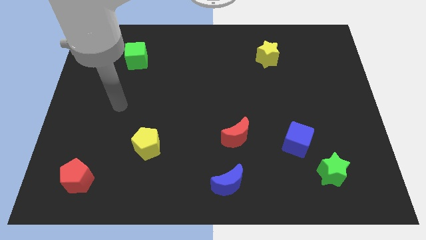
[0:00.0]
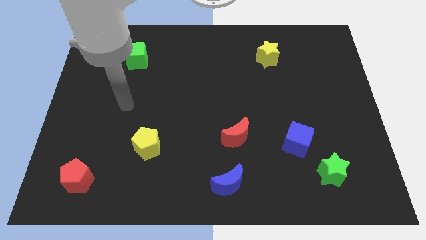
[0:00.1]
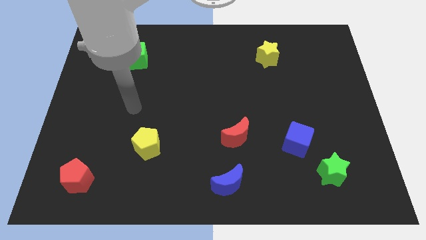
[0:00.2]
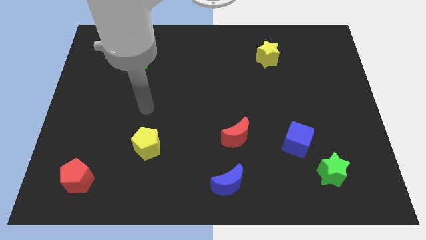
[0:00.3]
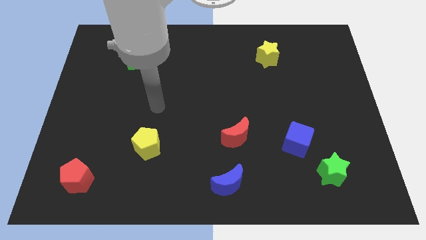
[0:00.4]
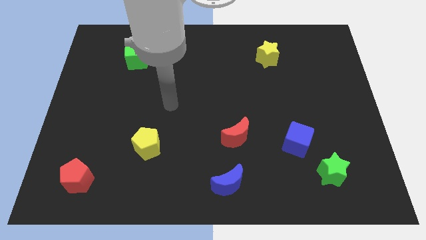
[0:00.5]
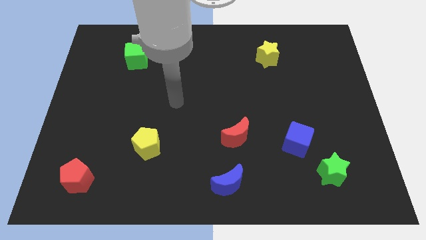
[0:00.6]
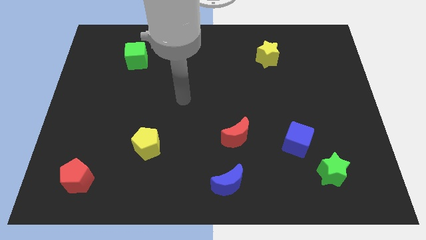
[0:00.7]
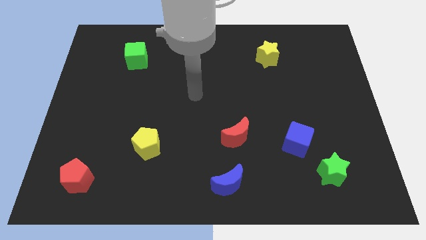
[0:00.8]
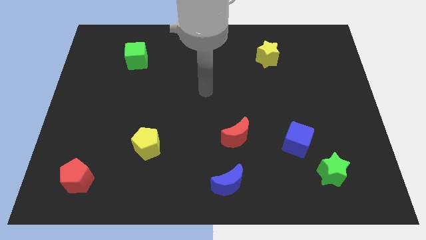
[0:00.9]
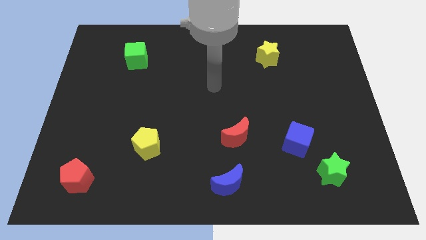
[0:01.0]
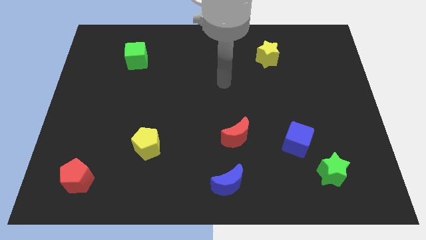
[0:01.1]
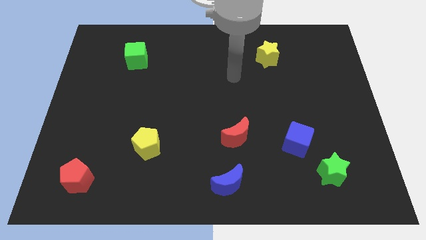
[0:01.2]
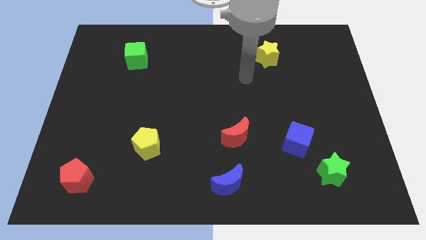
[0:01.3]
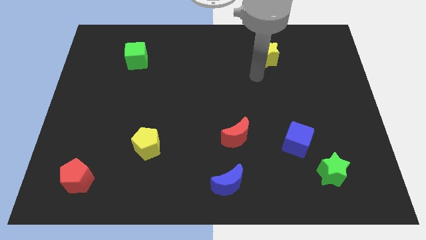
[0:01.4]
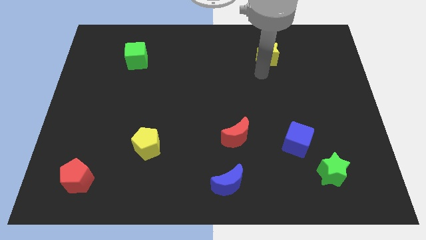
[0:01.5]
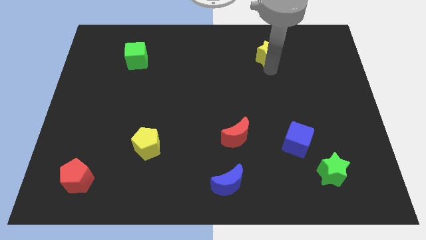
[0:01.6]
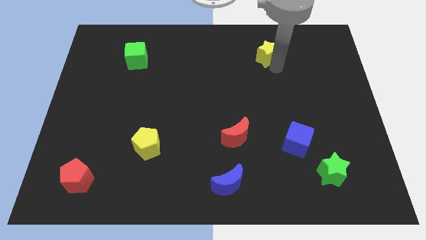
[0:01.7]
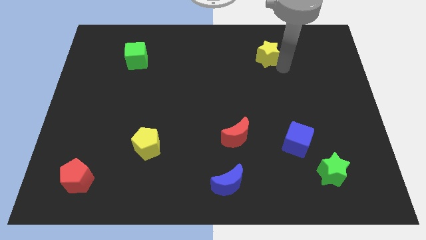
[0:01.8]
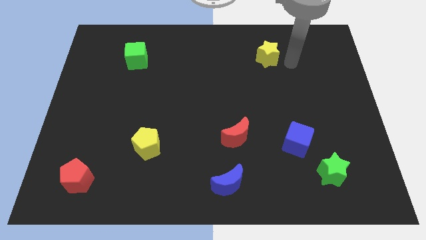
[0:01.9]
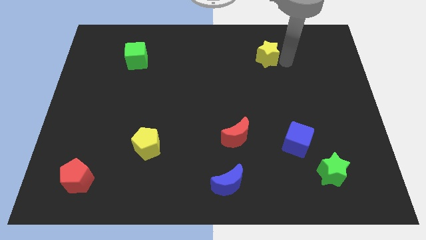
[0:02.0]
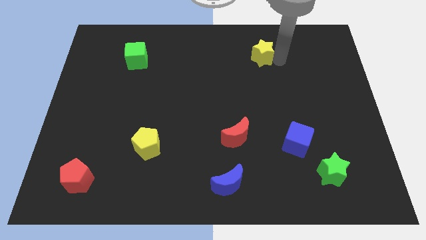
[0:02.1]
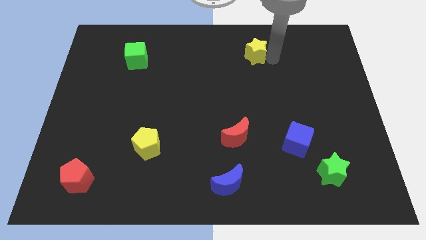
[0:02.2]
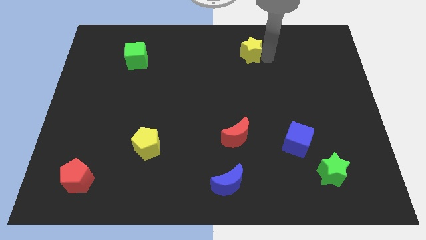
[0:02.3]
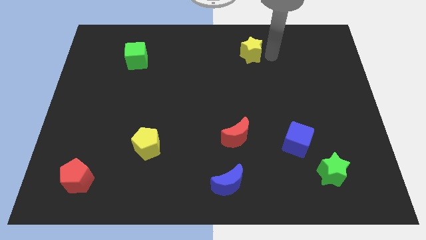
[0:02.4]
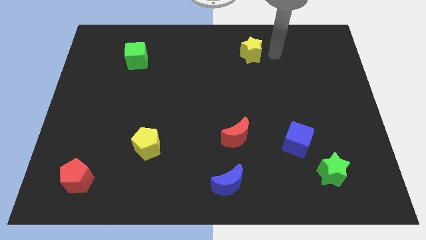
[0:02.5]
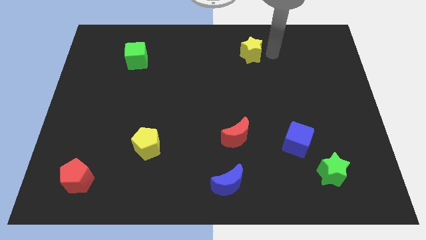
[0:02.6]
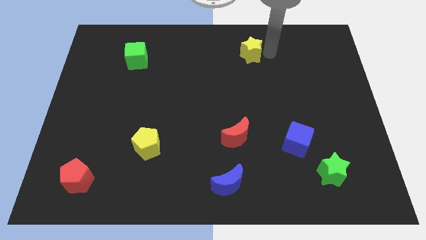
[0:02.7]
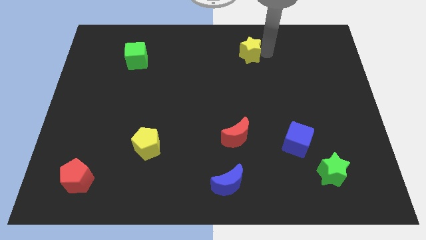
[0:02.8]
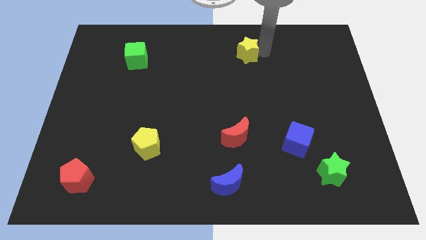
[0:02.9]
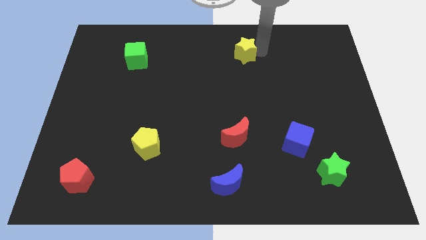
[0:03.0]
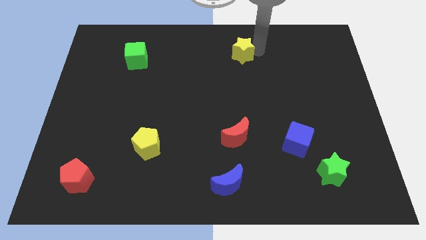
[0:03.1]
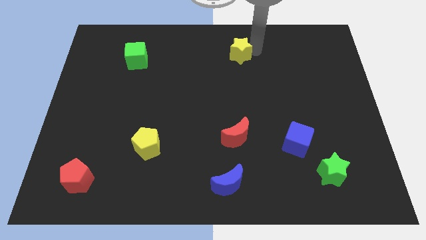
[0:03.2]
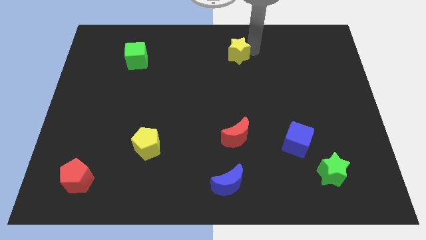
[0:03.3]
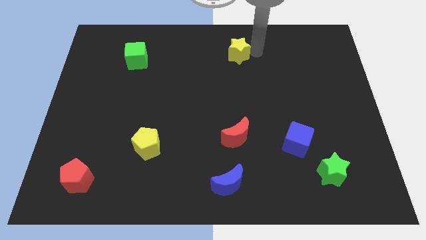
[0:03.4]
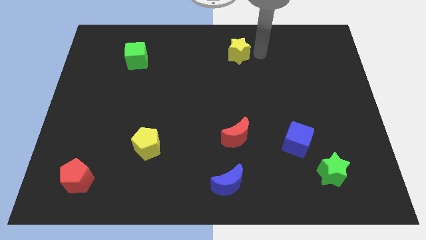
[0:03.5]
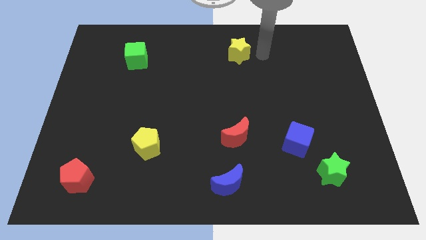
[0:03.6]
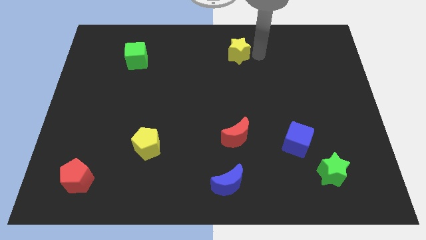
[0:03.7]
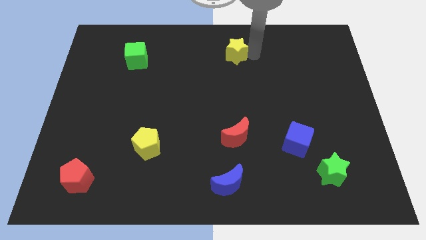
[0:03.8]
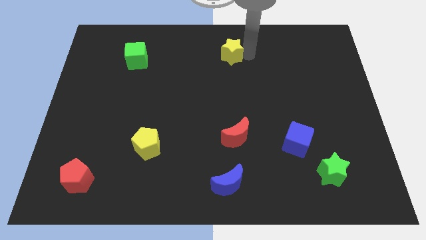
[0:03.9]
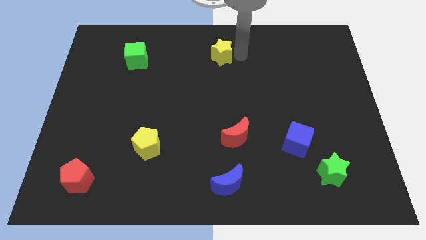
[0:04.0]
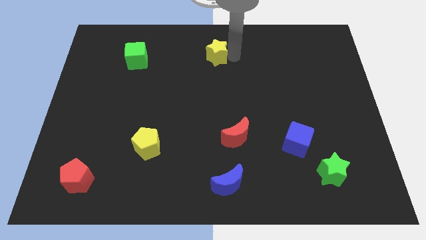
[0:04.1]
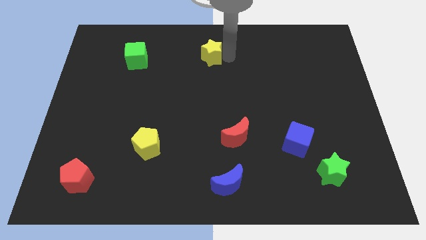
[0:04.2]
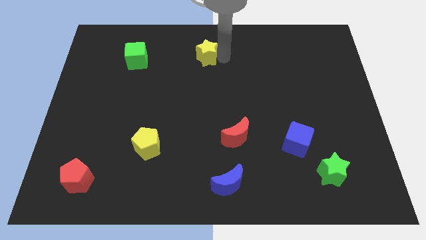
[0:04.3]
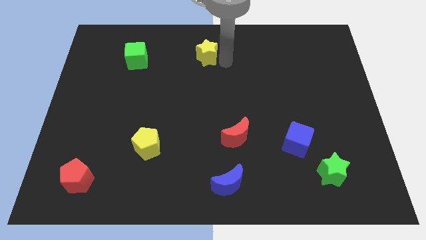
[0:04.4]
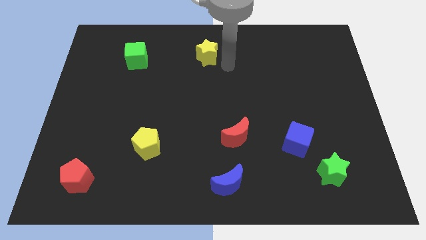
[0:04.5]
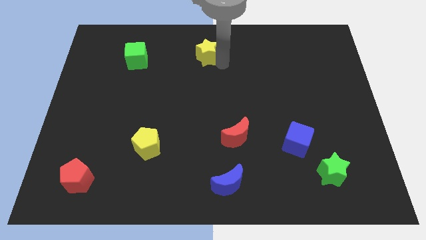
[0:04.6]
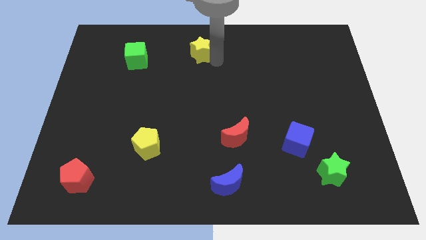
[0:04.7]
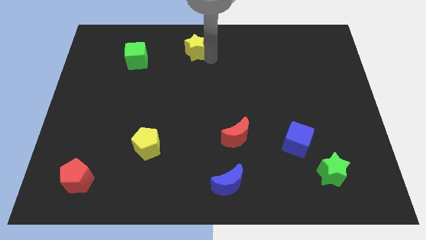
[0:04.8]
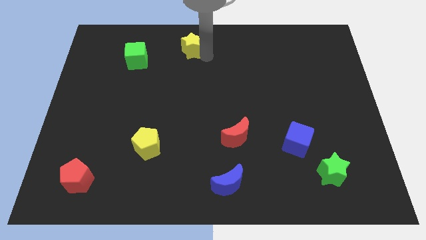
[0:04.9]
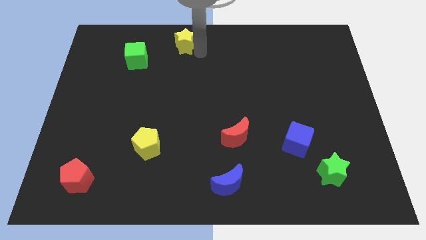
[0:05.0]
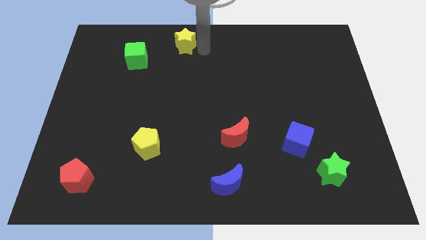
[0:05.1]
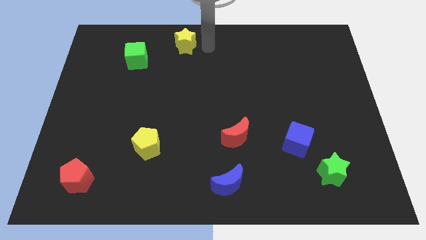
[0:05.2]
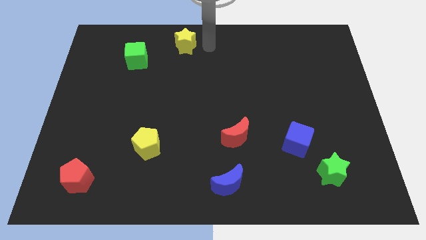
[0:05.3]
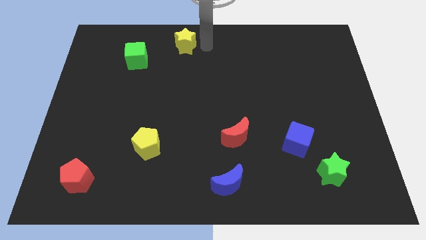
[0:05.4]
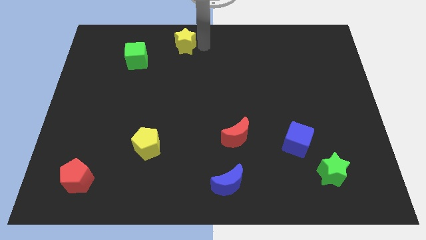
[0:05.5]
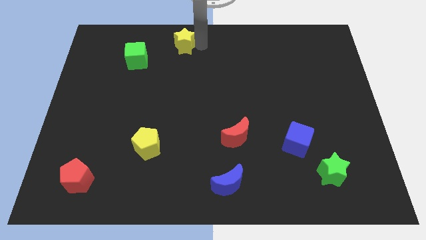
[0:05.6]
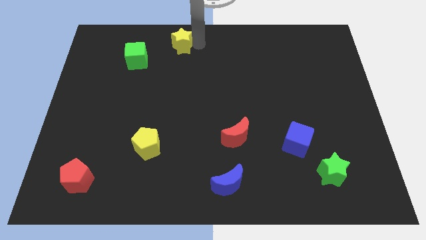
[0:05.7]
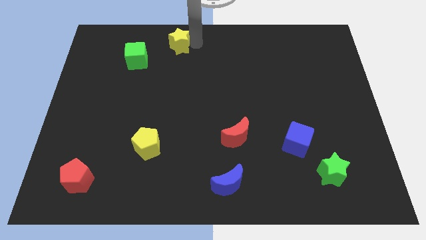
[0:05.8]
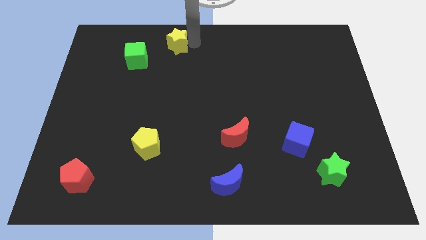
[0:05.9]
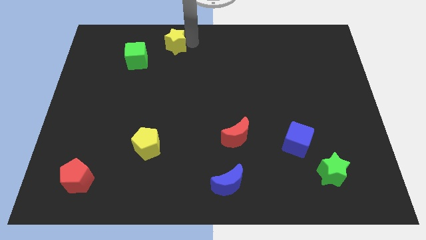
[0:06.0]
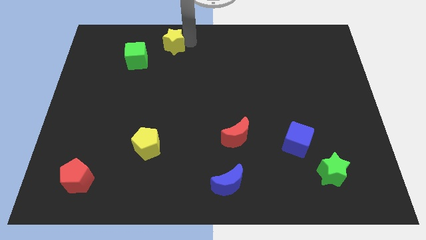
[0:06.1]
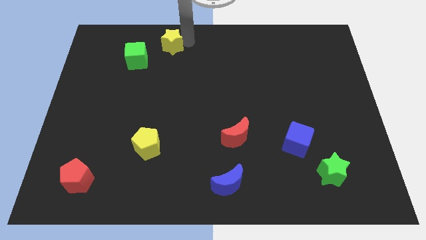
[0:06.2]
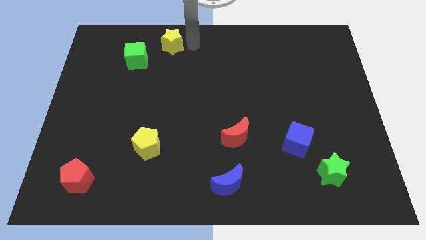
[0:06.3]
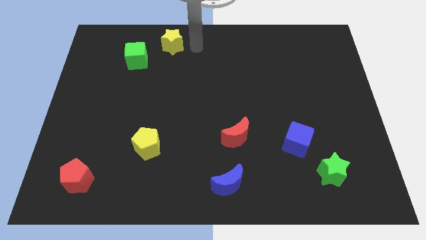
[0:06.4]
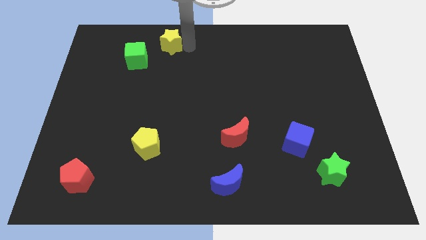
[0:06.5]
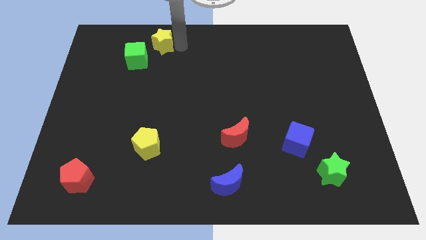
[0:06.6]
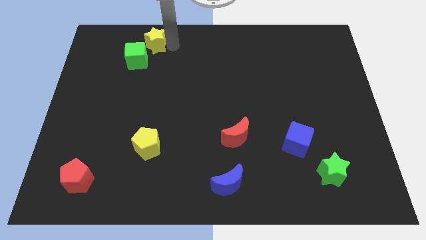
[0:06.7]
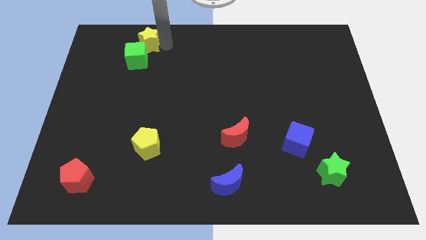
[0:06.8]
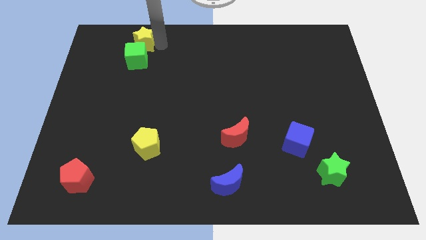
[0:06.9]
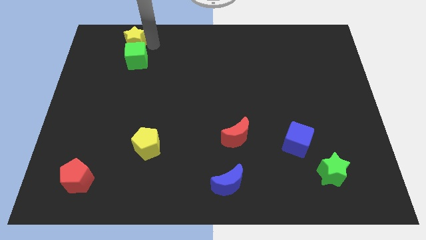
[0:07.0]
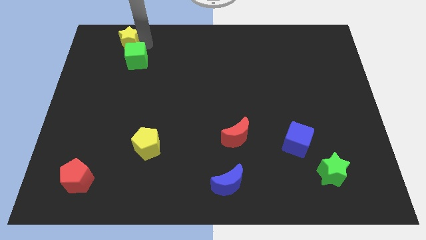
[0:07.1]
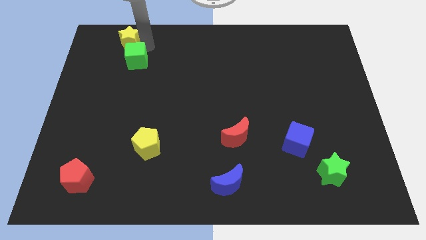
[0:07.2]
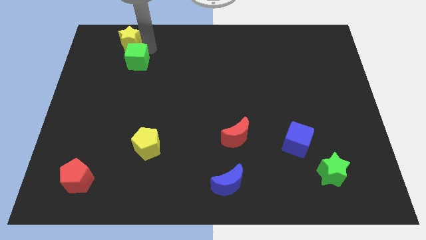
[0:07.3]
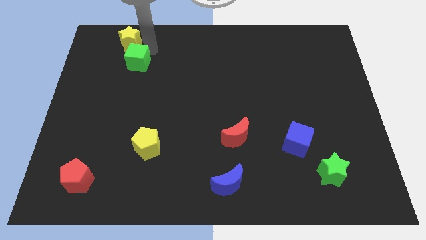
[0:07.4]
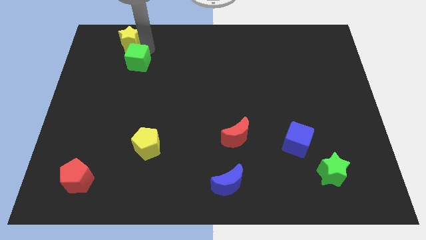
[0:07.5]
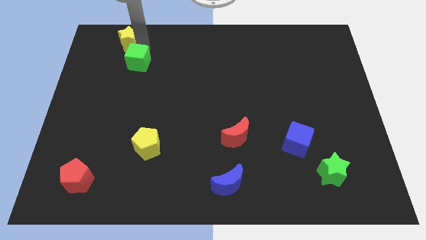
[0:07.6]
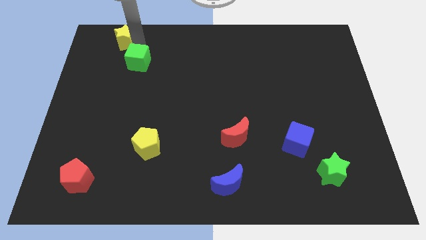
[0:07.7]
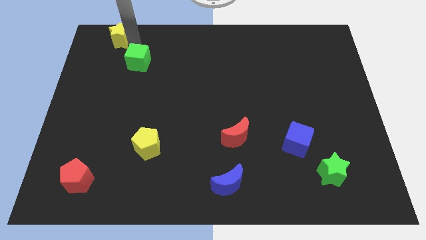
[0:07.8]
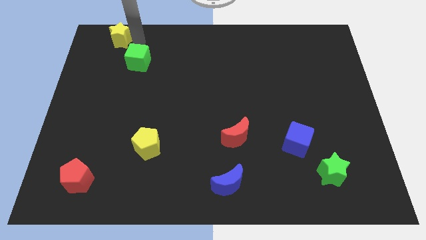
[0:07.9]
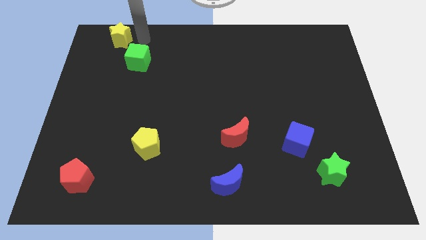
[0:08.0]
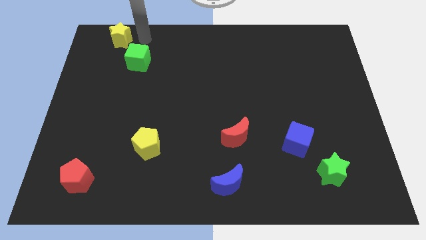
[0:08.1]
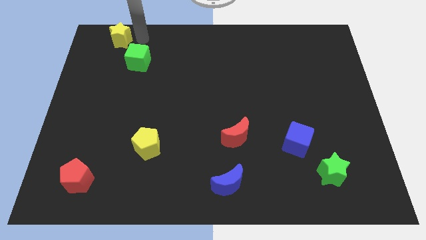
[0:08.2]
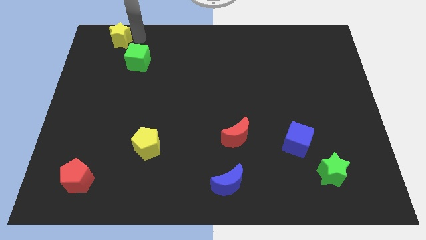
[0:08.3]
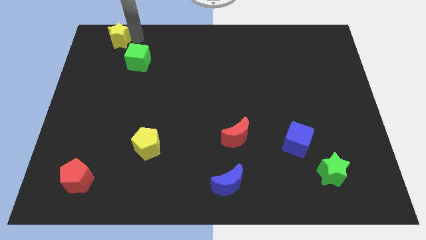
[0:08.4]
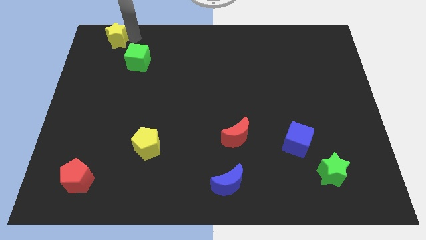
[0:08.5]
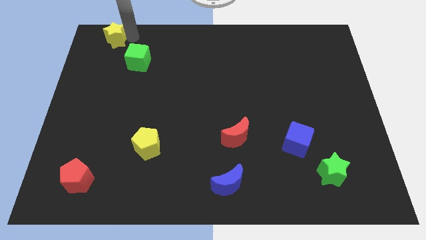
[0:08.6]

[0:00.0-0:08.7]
move the yellow star to the top left of the board
